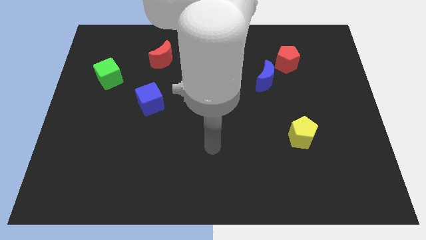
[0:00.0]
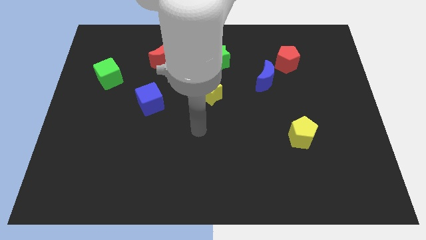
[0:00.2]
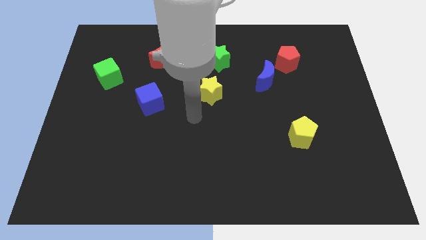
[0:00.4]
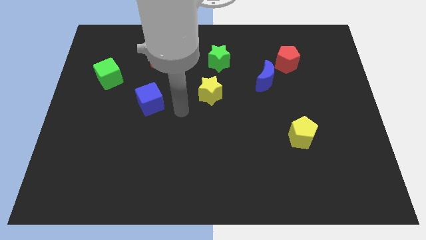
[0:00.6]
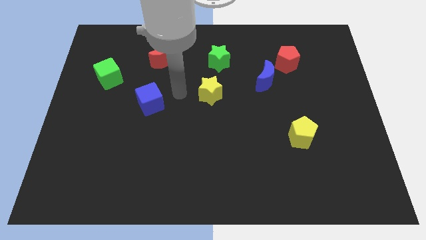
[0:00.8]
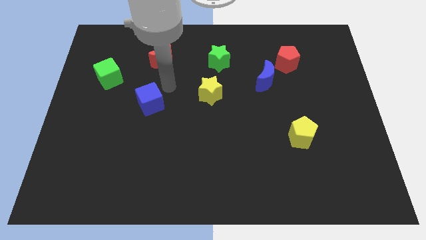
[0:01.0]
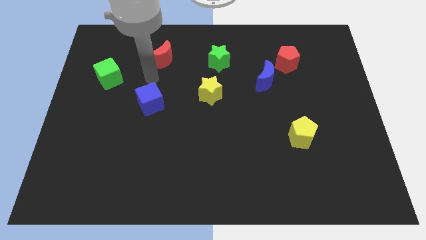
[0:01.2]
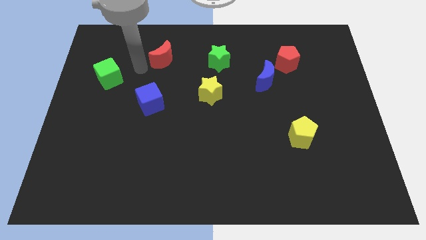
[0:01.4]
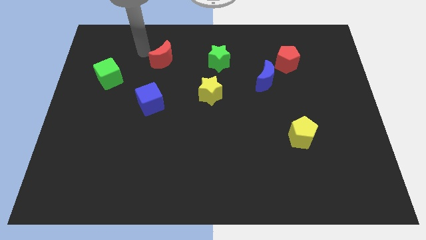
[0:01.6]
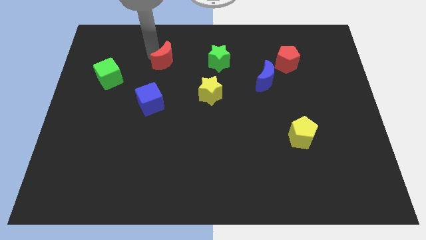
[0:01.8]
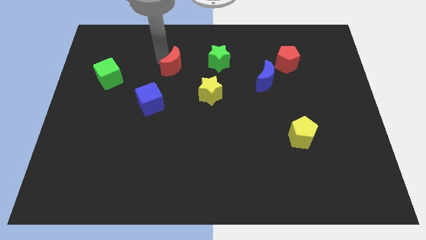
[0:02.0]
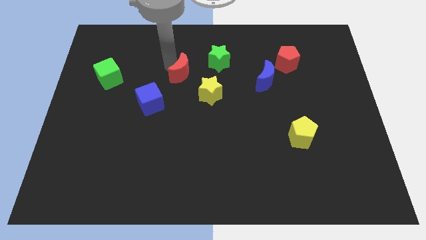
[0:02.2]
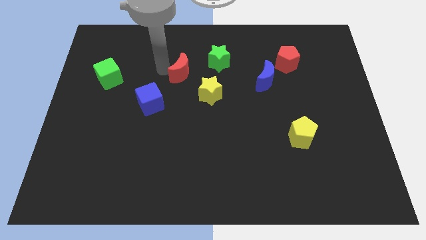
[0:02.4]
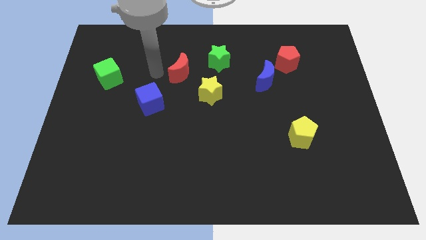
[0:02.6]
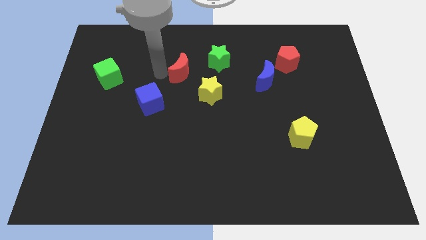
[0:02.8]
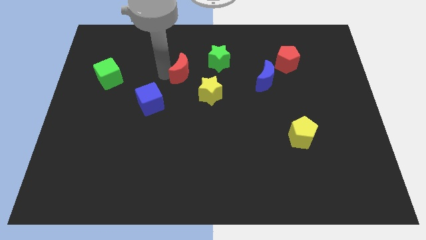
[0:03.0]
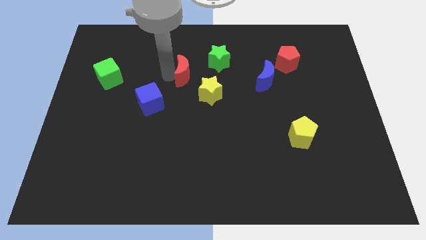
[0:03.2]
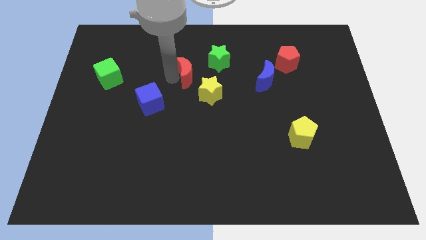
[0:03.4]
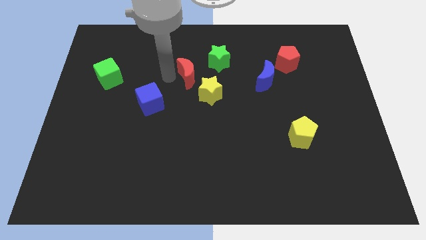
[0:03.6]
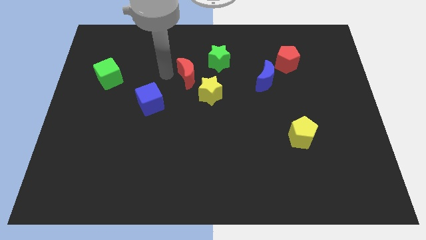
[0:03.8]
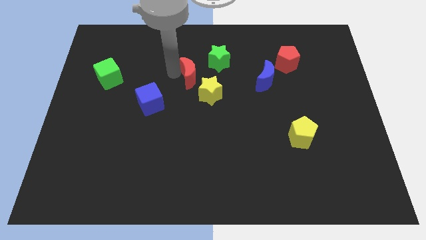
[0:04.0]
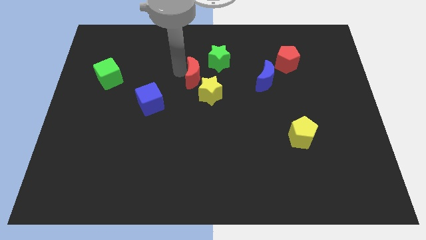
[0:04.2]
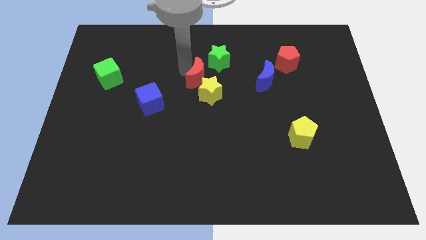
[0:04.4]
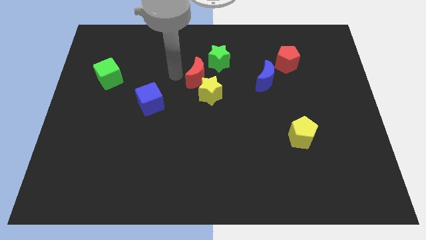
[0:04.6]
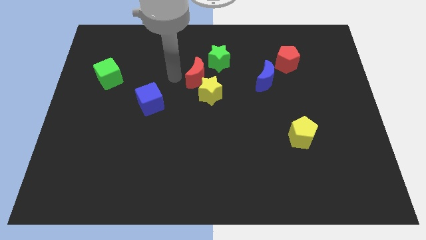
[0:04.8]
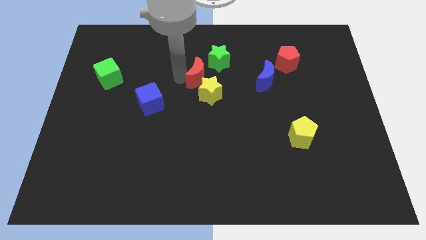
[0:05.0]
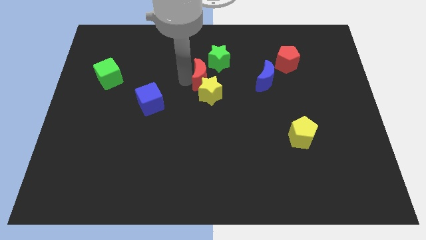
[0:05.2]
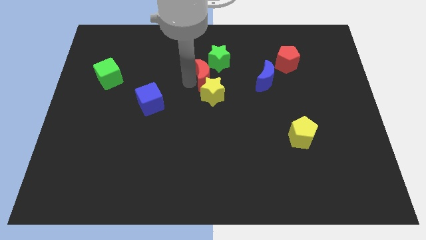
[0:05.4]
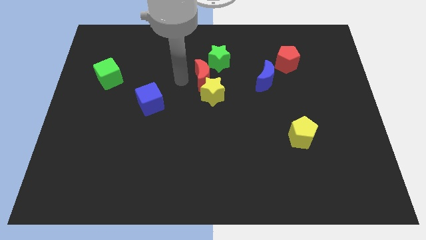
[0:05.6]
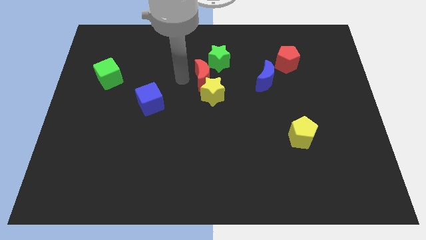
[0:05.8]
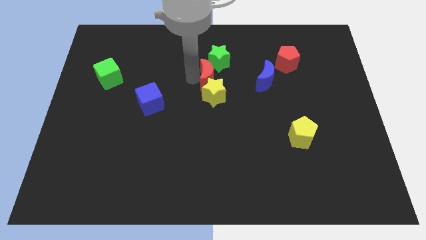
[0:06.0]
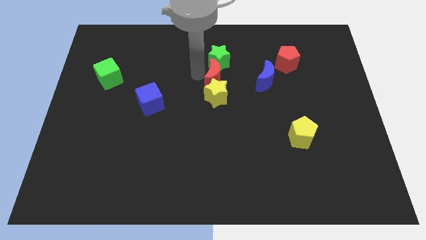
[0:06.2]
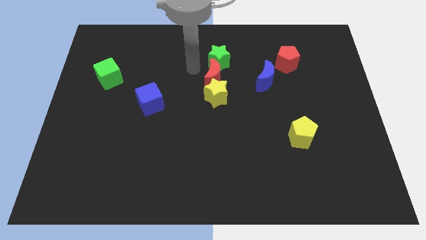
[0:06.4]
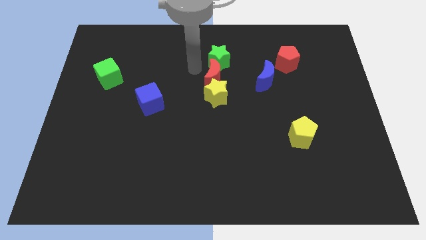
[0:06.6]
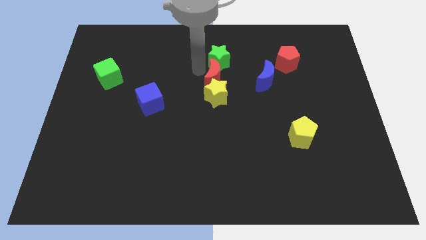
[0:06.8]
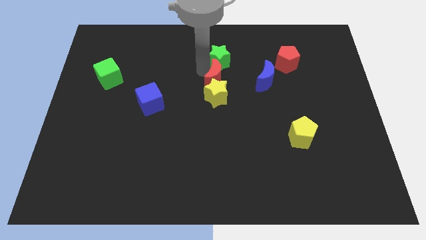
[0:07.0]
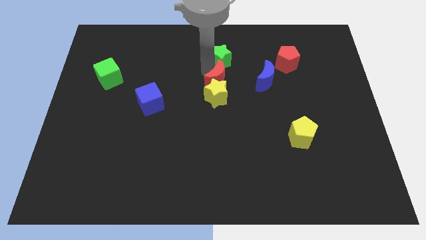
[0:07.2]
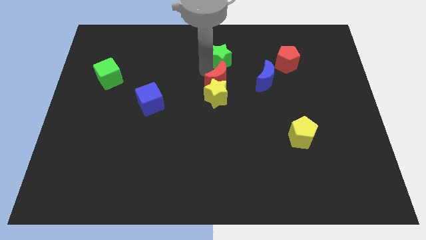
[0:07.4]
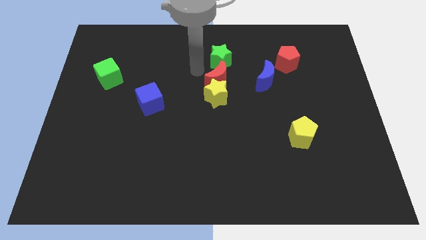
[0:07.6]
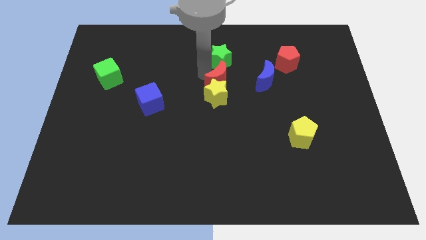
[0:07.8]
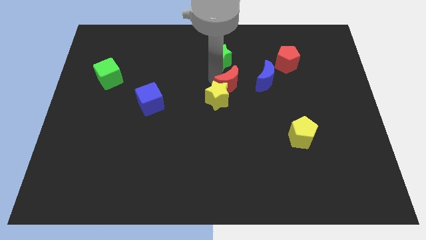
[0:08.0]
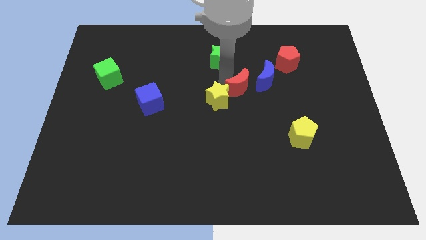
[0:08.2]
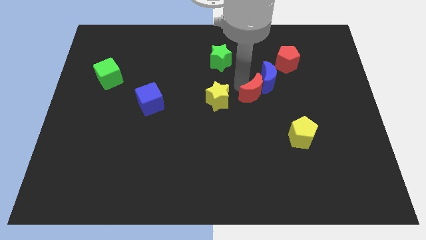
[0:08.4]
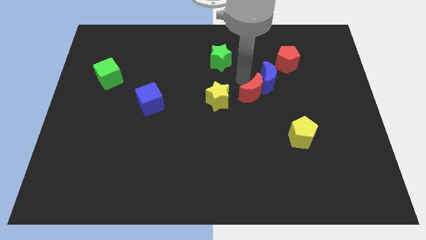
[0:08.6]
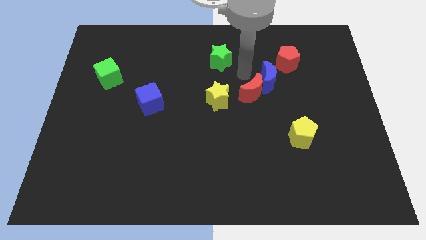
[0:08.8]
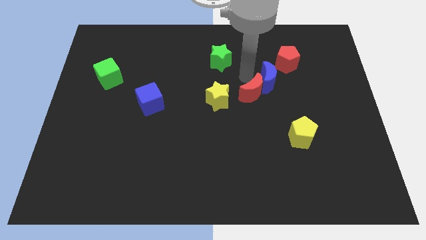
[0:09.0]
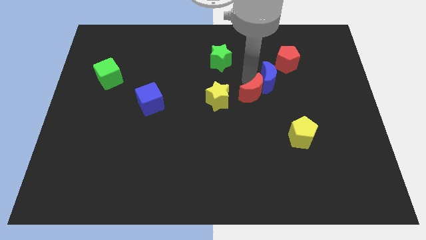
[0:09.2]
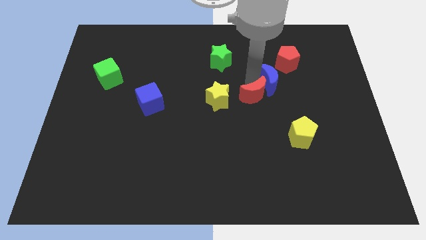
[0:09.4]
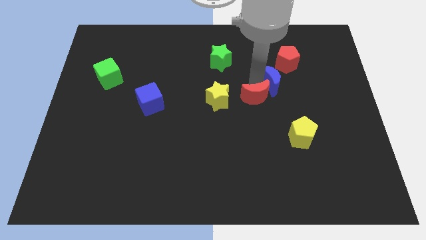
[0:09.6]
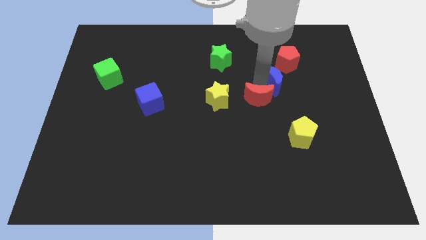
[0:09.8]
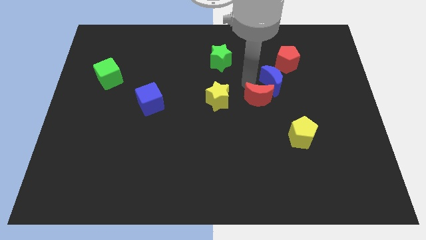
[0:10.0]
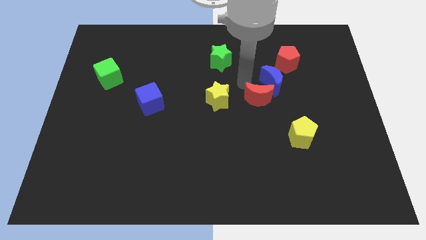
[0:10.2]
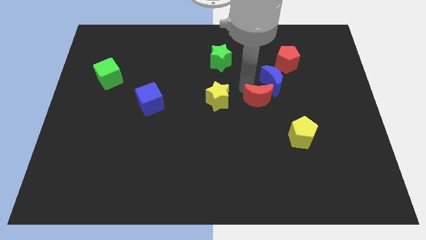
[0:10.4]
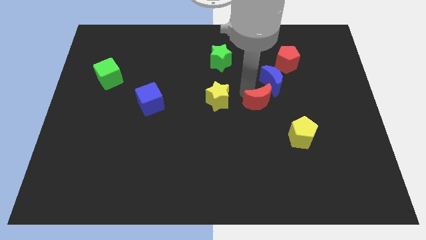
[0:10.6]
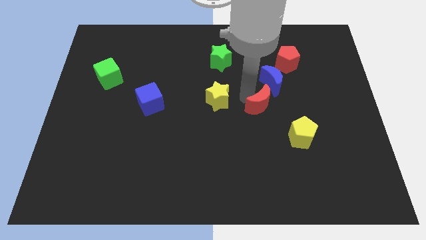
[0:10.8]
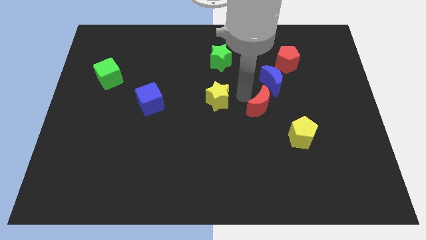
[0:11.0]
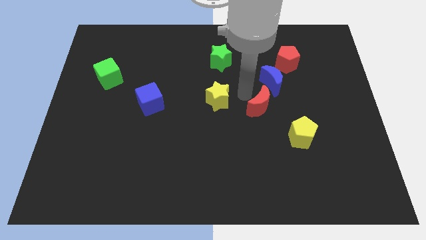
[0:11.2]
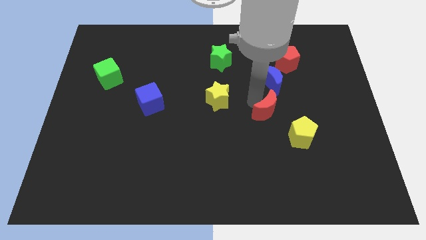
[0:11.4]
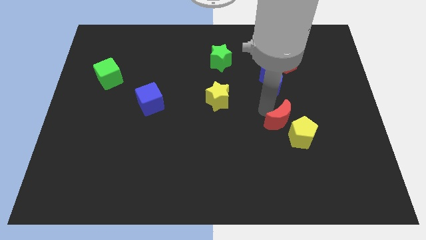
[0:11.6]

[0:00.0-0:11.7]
move the red moon towards the yellow pentagon

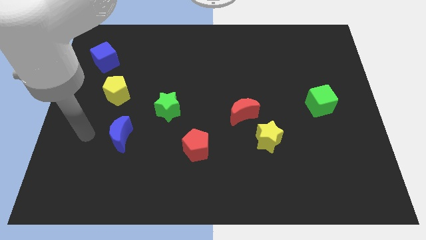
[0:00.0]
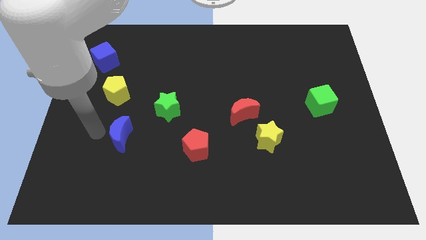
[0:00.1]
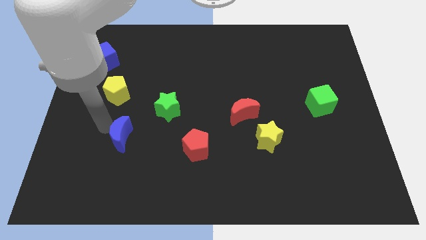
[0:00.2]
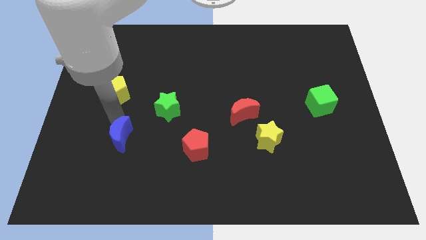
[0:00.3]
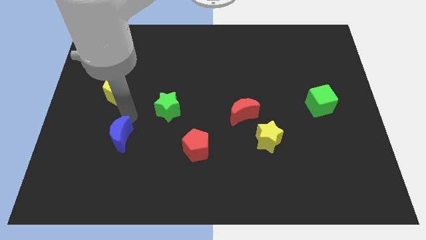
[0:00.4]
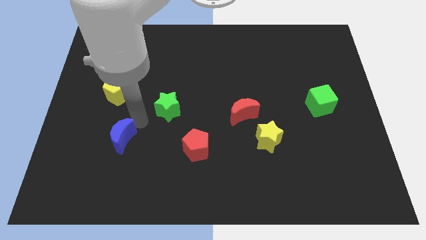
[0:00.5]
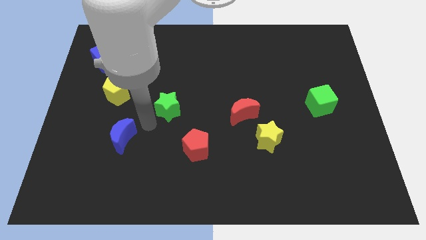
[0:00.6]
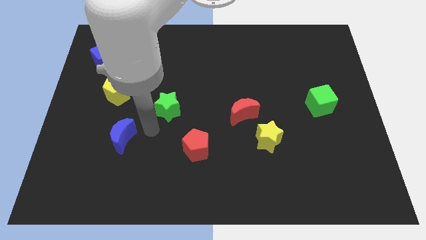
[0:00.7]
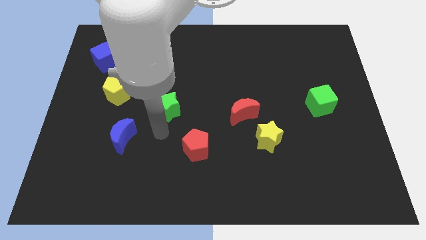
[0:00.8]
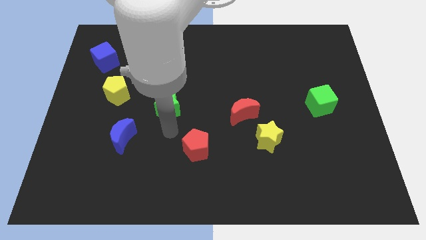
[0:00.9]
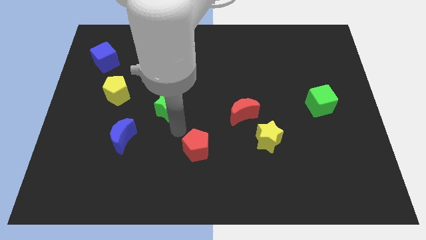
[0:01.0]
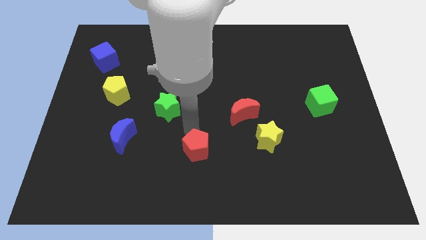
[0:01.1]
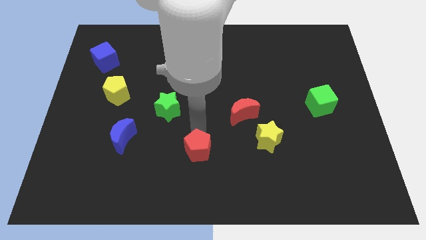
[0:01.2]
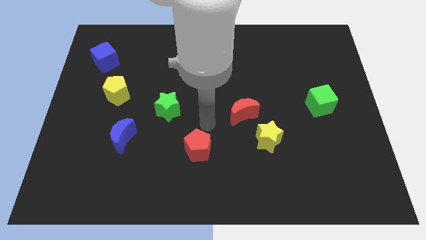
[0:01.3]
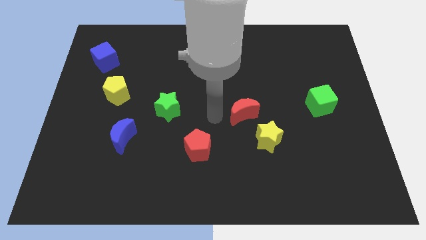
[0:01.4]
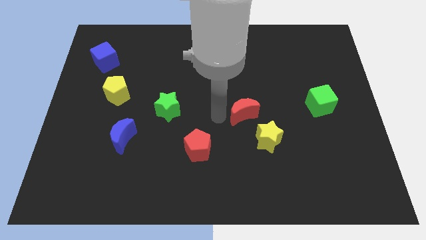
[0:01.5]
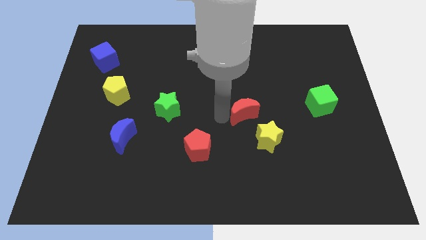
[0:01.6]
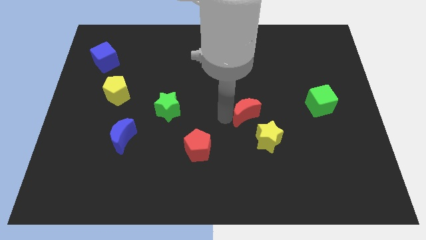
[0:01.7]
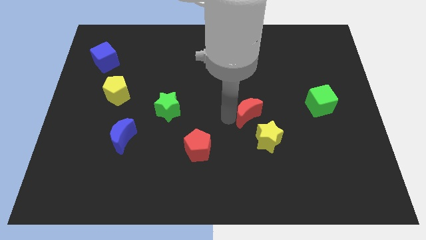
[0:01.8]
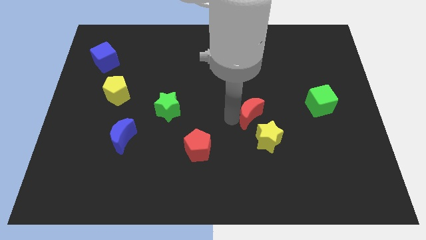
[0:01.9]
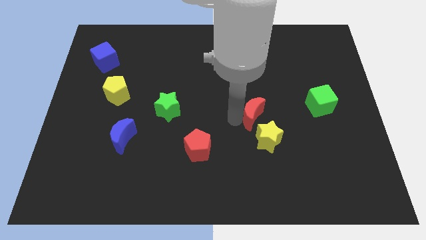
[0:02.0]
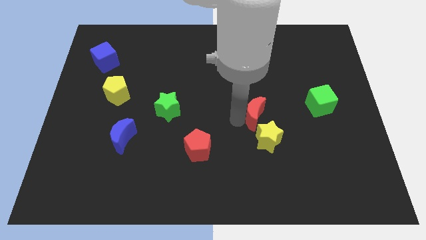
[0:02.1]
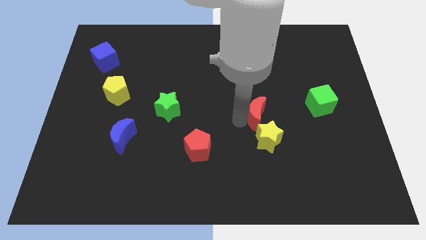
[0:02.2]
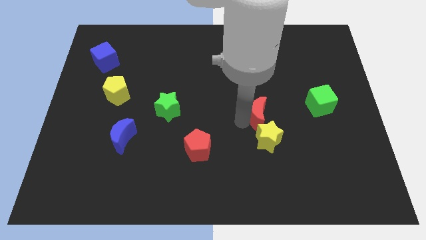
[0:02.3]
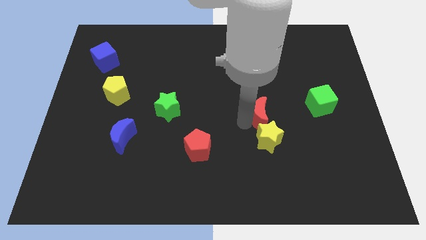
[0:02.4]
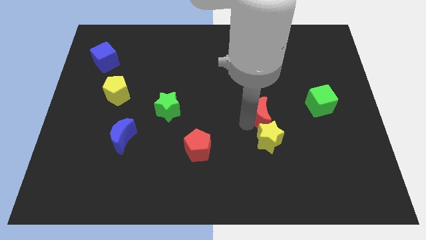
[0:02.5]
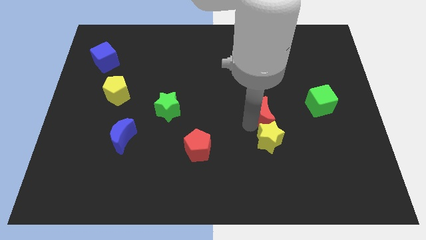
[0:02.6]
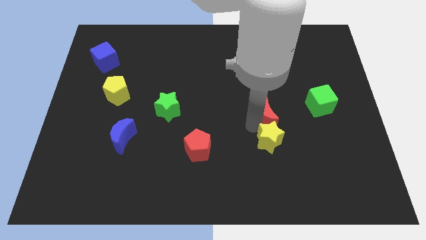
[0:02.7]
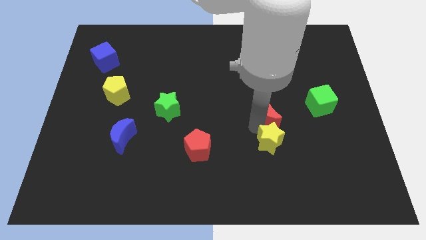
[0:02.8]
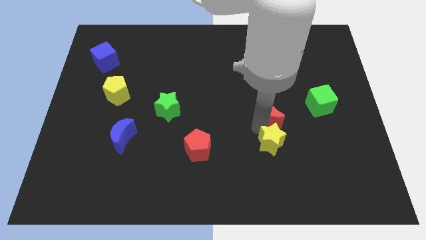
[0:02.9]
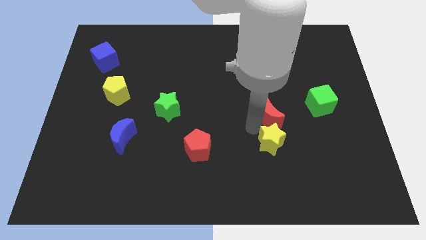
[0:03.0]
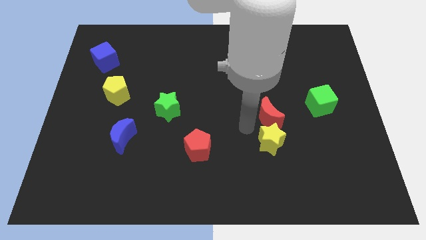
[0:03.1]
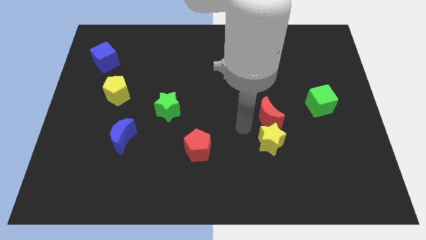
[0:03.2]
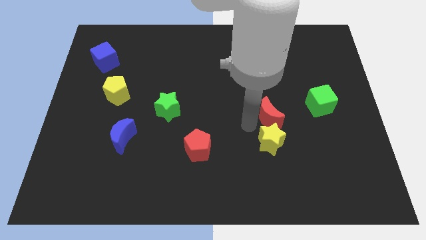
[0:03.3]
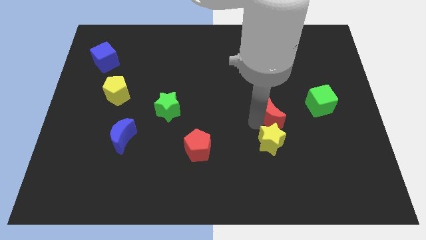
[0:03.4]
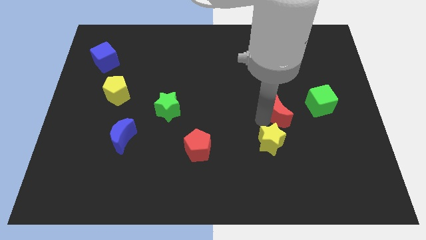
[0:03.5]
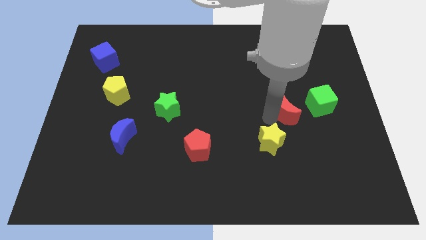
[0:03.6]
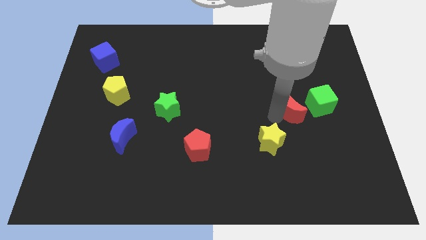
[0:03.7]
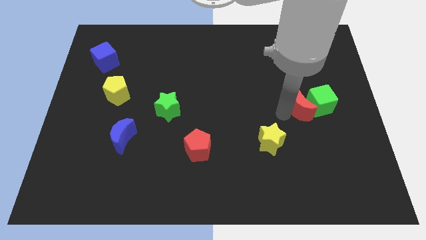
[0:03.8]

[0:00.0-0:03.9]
move the red moon towards the green cube
